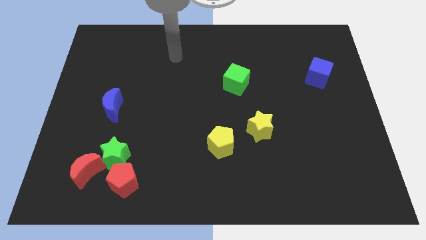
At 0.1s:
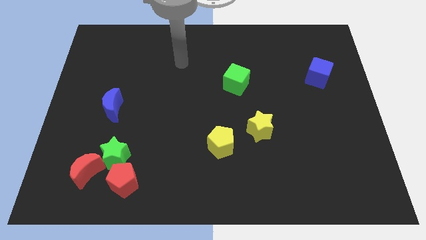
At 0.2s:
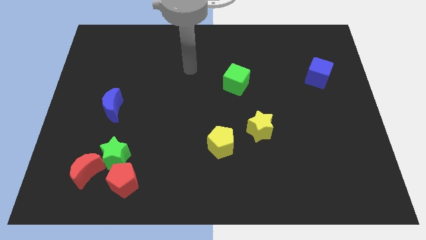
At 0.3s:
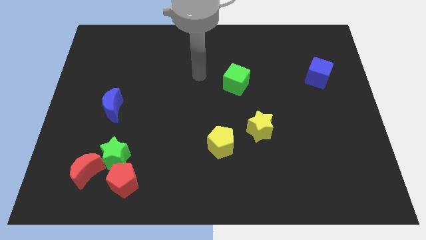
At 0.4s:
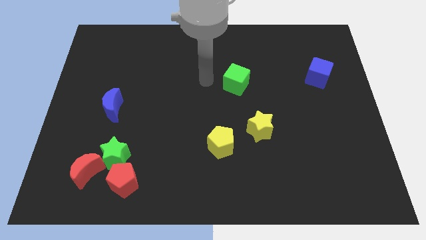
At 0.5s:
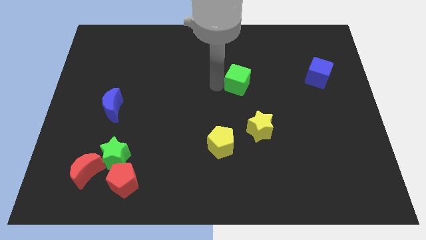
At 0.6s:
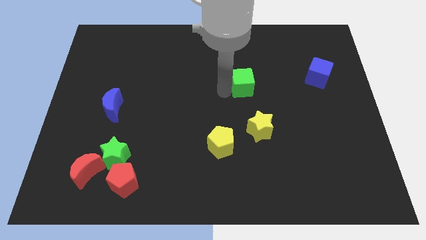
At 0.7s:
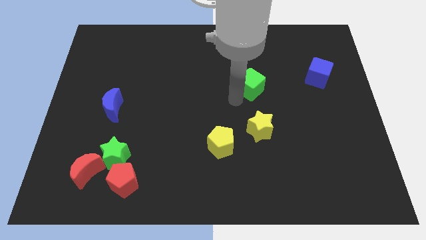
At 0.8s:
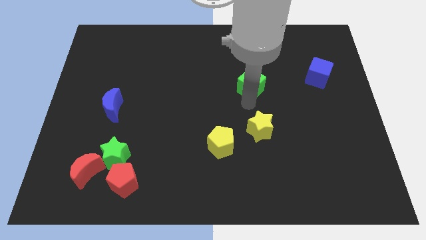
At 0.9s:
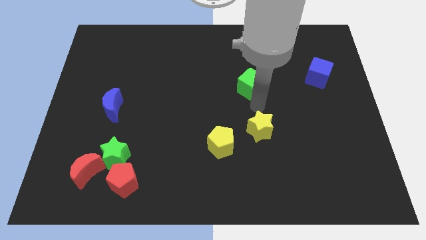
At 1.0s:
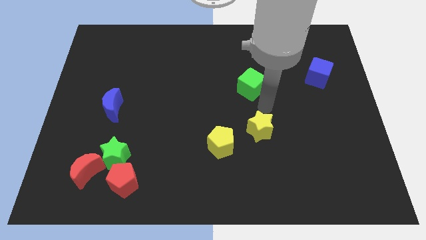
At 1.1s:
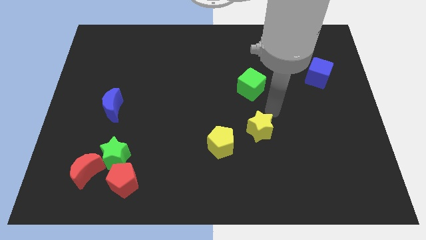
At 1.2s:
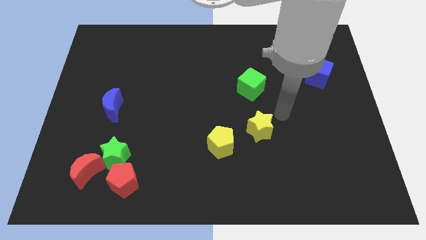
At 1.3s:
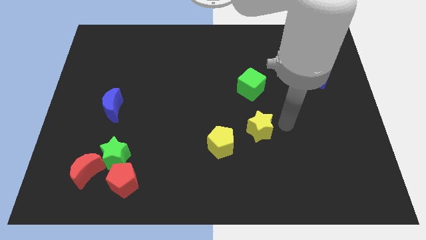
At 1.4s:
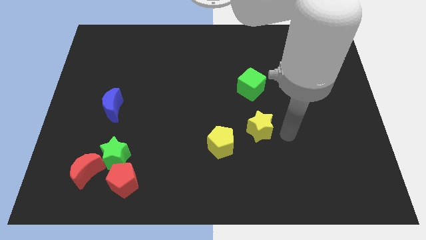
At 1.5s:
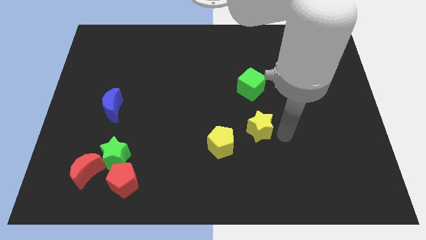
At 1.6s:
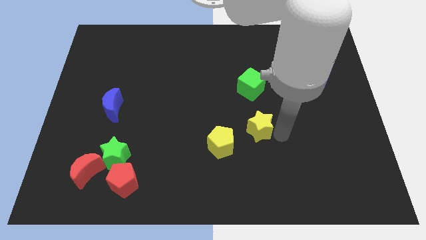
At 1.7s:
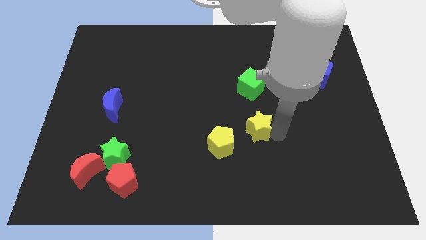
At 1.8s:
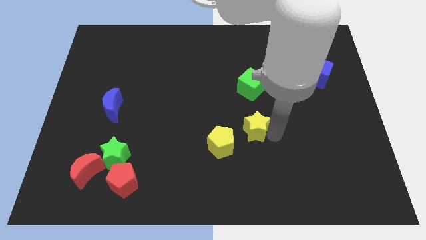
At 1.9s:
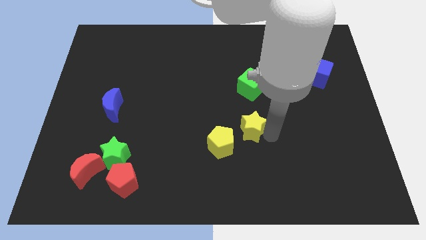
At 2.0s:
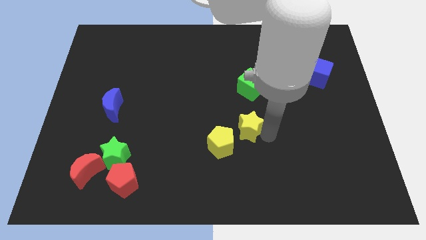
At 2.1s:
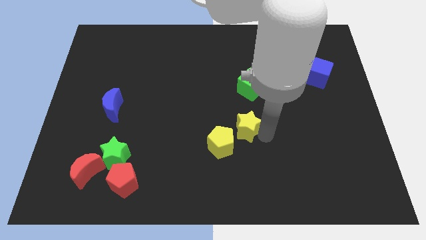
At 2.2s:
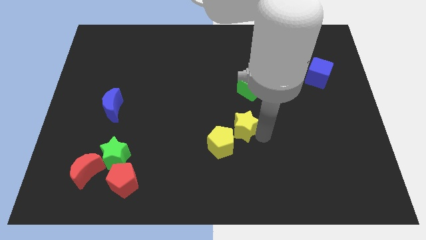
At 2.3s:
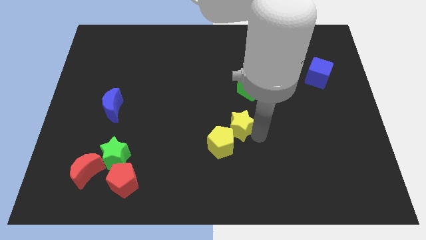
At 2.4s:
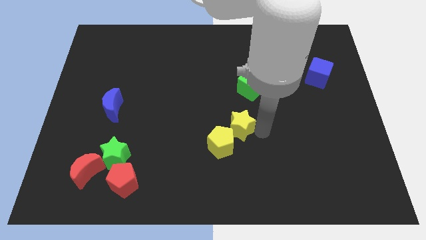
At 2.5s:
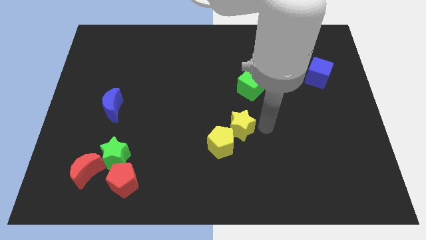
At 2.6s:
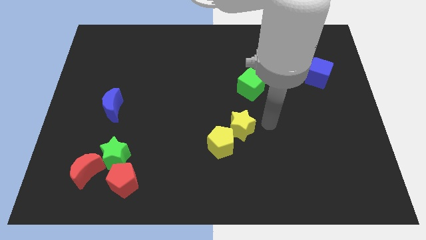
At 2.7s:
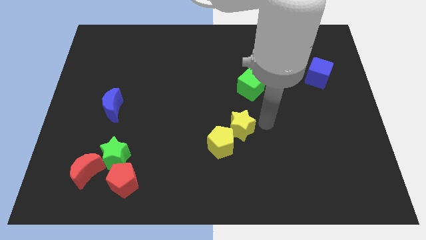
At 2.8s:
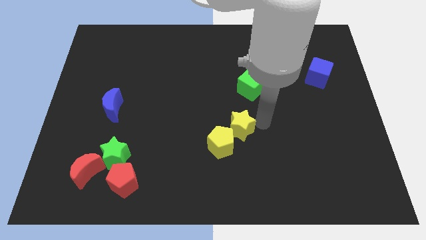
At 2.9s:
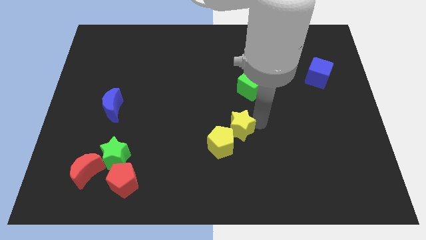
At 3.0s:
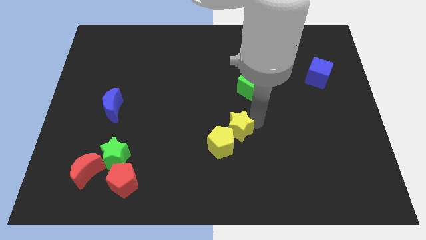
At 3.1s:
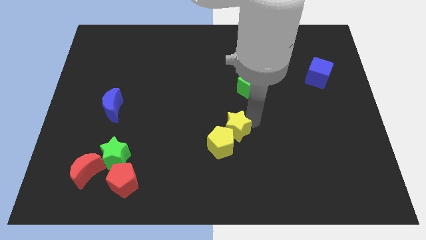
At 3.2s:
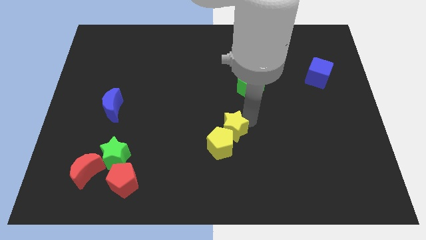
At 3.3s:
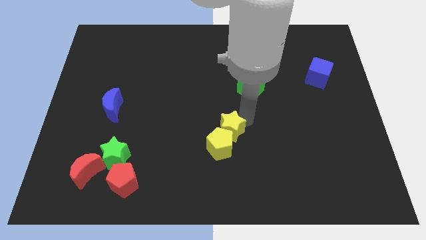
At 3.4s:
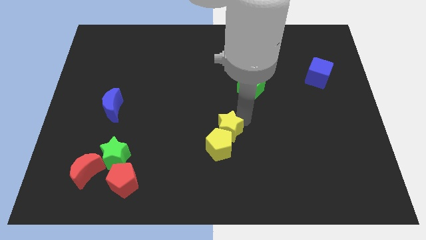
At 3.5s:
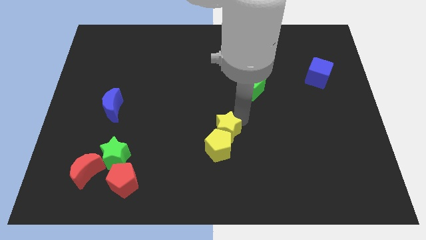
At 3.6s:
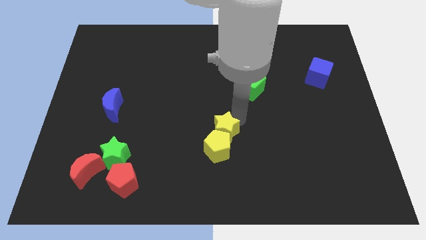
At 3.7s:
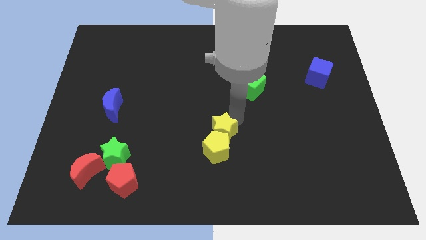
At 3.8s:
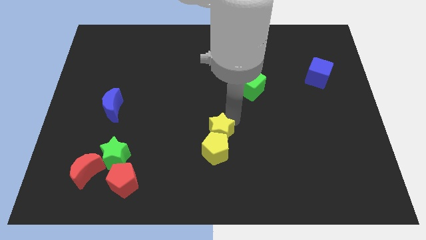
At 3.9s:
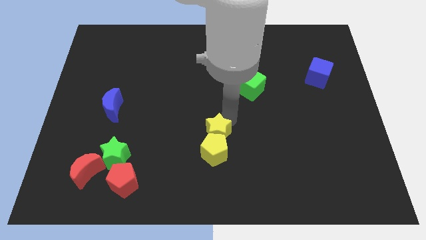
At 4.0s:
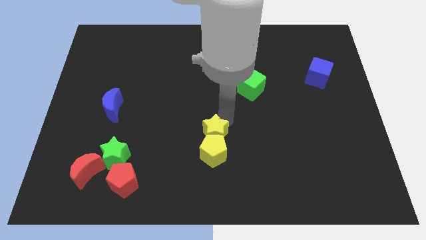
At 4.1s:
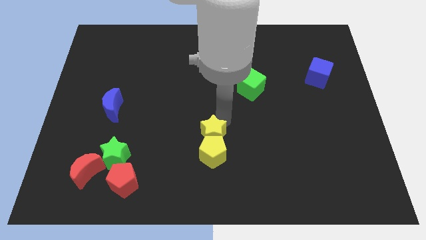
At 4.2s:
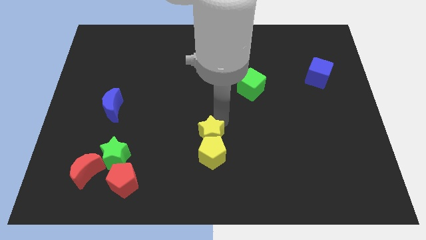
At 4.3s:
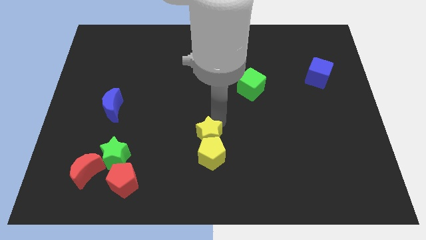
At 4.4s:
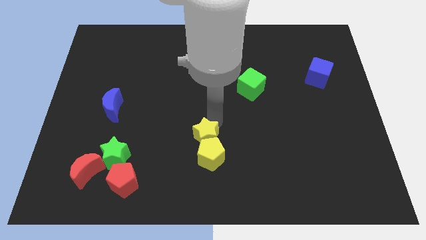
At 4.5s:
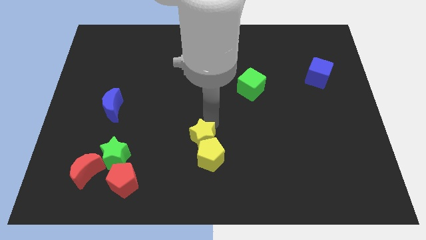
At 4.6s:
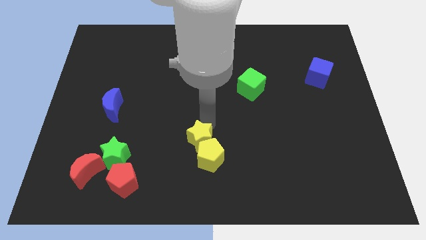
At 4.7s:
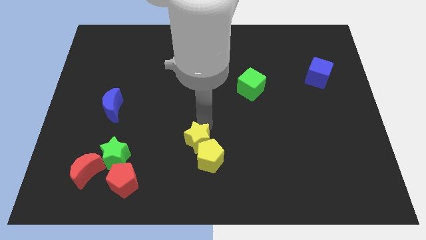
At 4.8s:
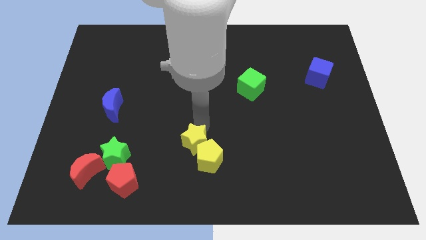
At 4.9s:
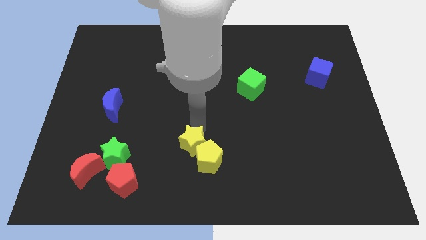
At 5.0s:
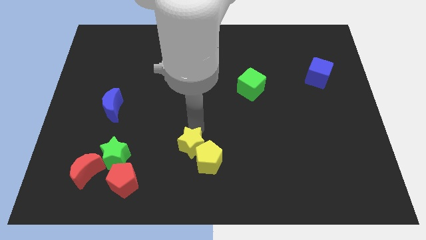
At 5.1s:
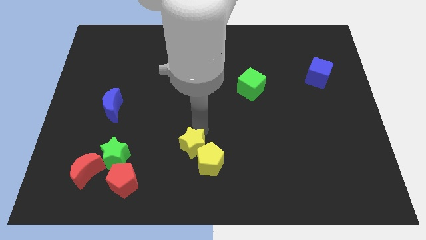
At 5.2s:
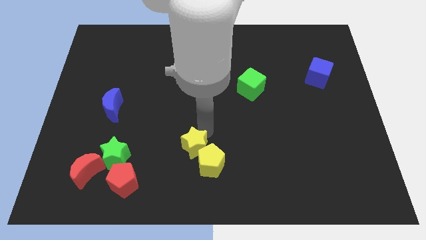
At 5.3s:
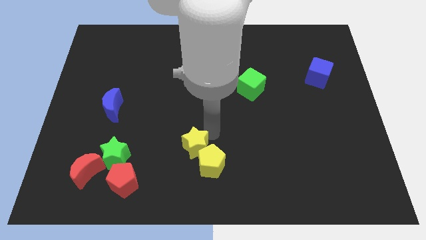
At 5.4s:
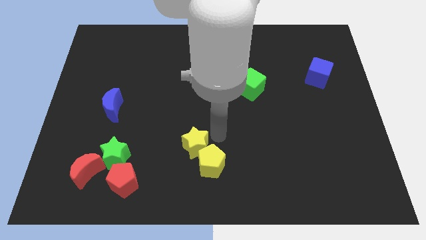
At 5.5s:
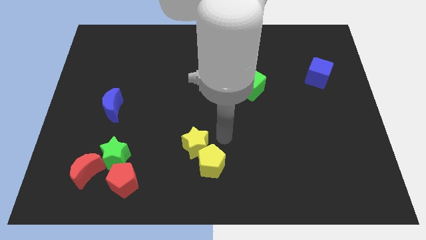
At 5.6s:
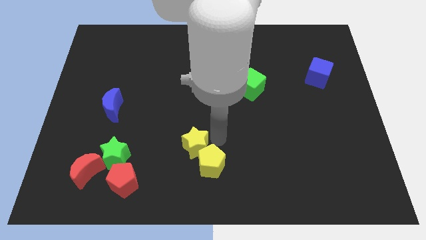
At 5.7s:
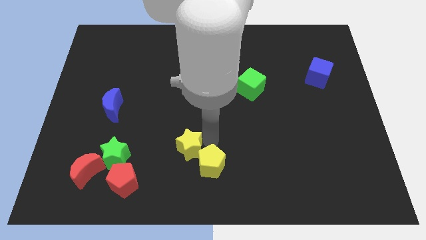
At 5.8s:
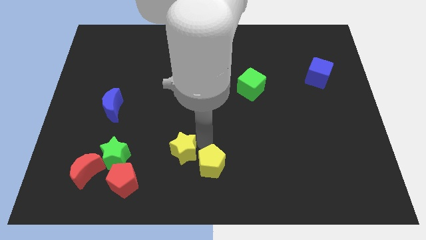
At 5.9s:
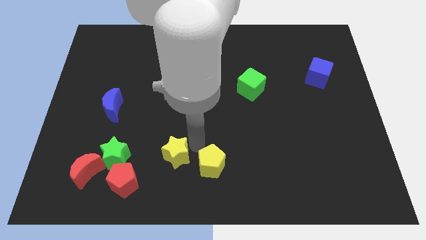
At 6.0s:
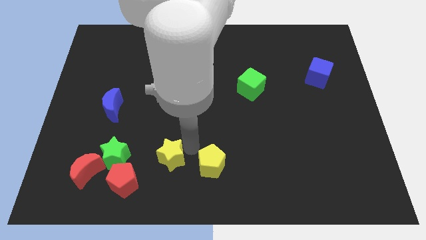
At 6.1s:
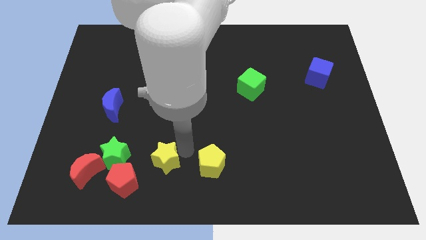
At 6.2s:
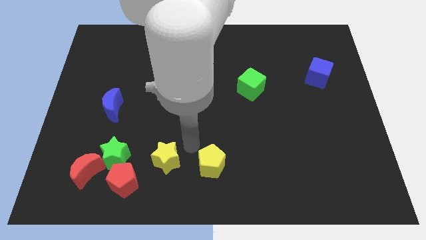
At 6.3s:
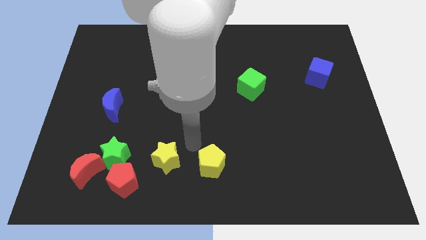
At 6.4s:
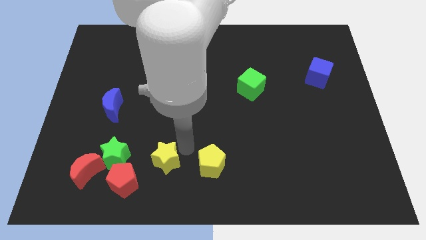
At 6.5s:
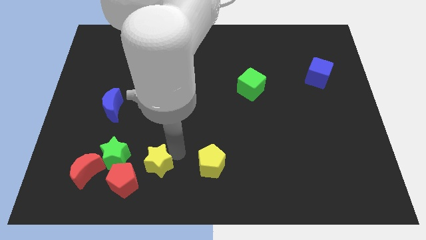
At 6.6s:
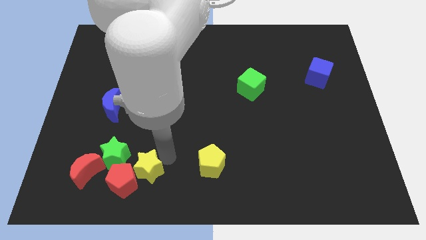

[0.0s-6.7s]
put the yellow star next to the red pentagon

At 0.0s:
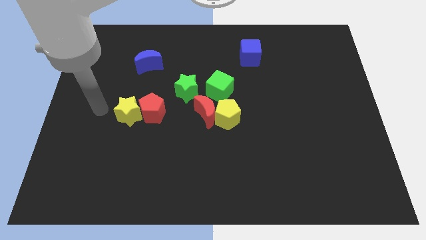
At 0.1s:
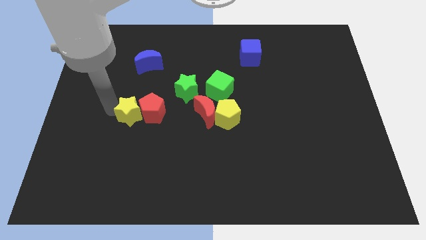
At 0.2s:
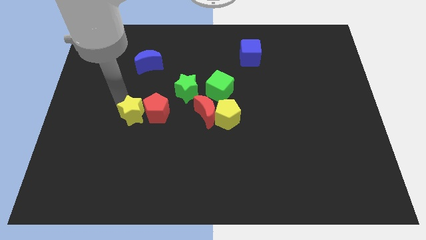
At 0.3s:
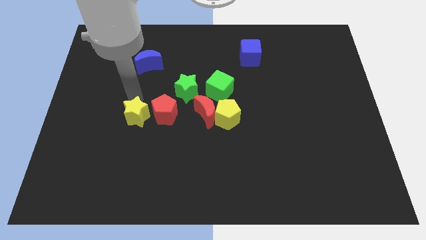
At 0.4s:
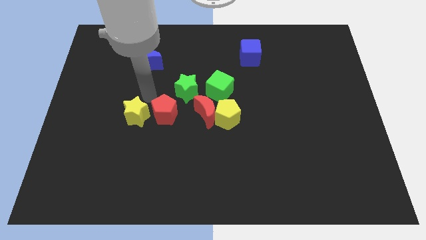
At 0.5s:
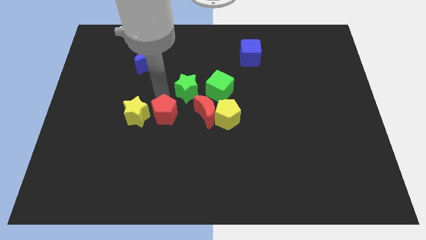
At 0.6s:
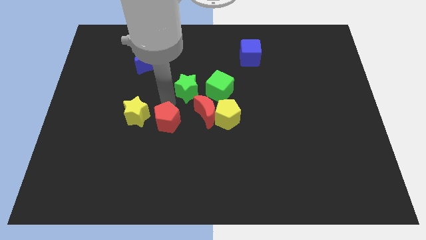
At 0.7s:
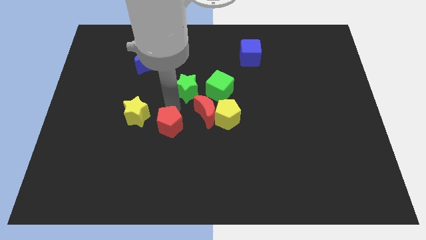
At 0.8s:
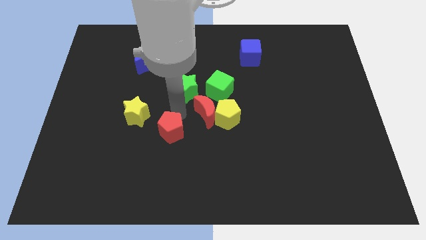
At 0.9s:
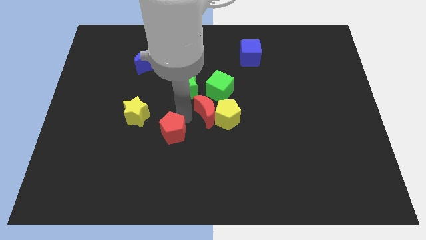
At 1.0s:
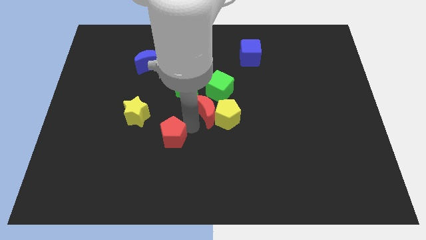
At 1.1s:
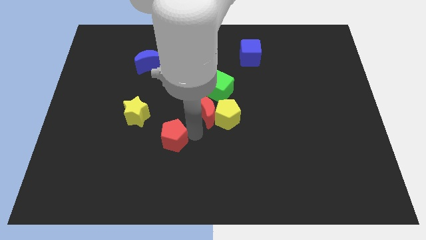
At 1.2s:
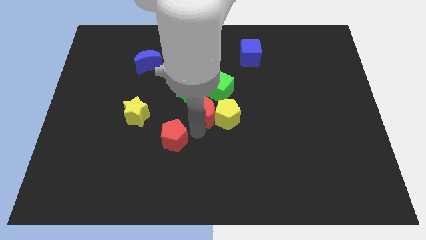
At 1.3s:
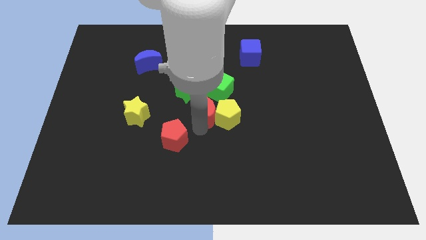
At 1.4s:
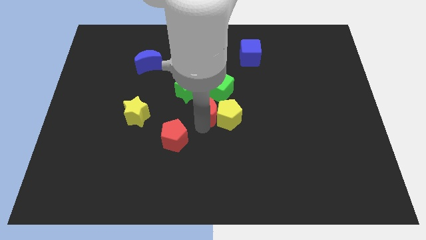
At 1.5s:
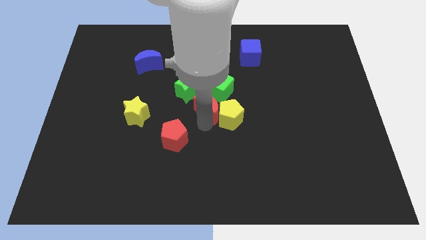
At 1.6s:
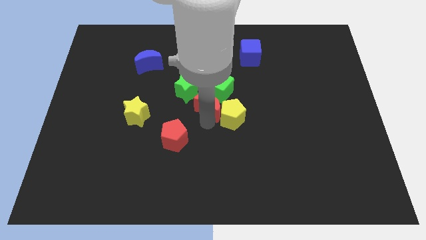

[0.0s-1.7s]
slide the red moon next to the green cube

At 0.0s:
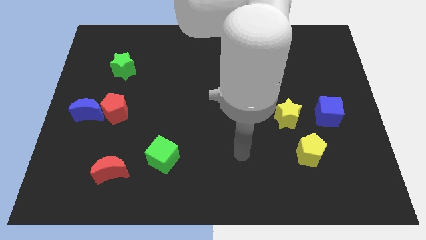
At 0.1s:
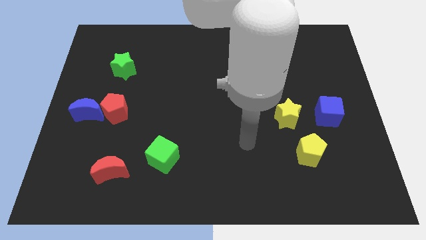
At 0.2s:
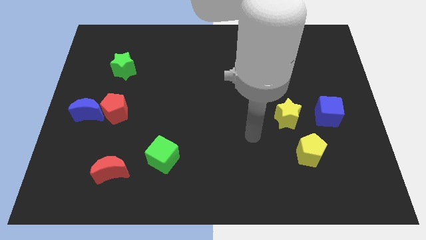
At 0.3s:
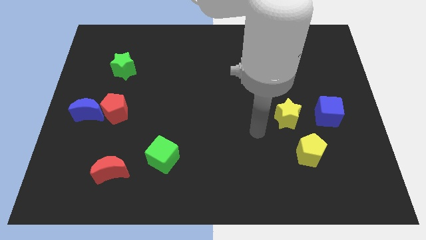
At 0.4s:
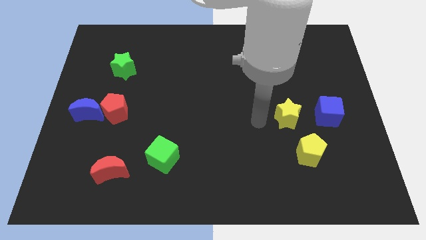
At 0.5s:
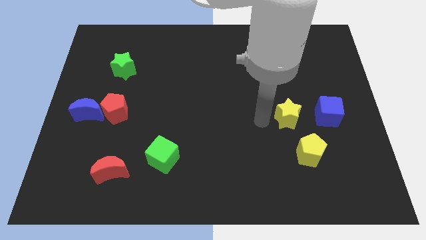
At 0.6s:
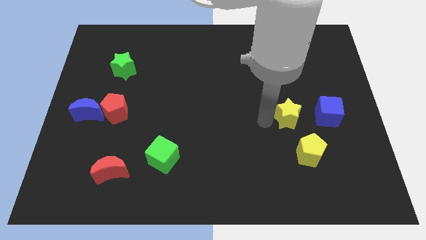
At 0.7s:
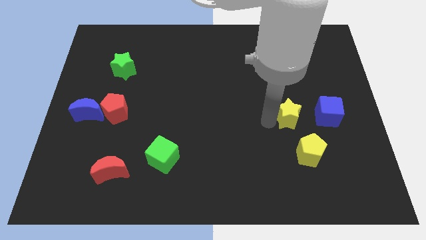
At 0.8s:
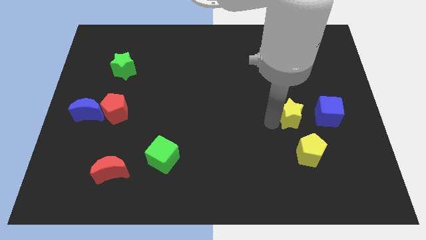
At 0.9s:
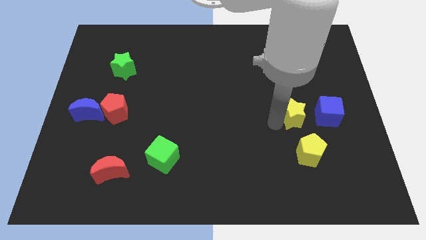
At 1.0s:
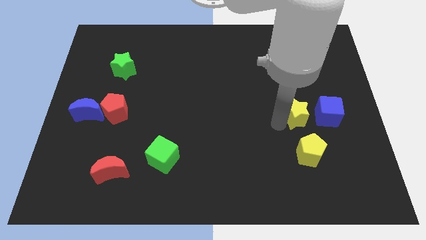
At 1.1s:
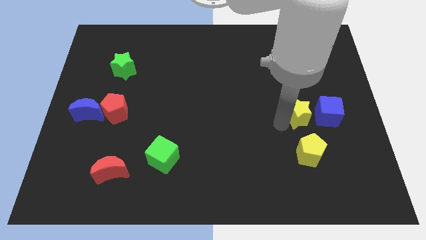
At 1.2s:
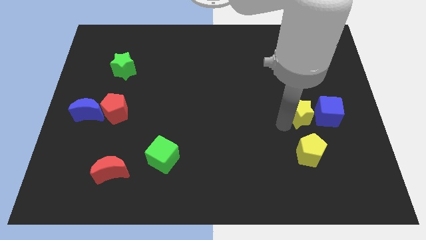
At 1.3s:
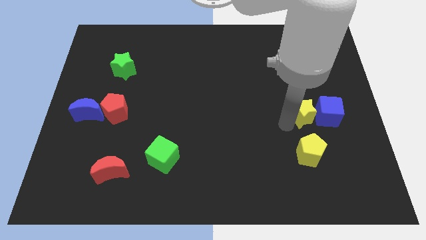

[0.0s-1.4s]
push the yellow star next to the blue cube
